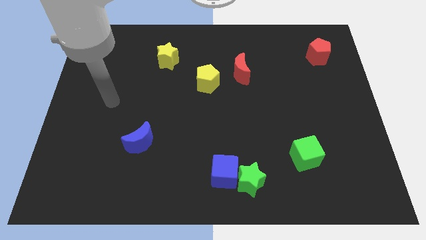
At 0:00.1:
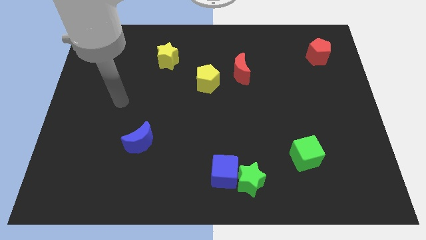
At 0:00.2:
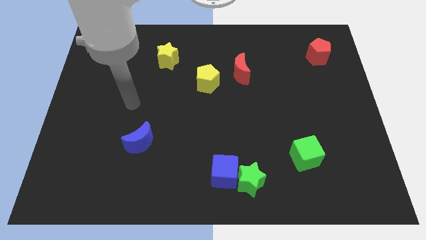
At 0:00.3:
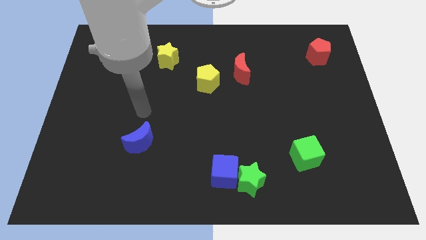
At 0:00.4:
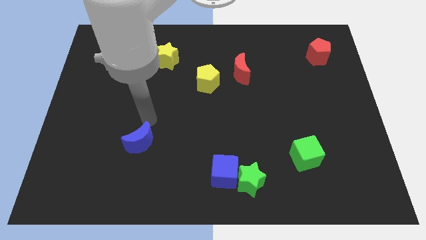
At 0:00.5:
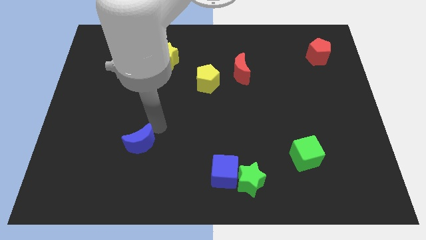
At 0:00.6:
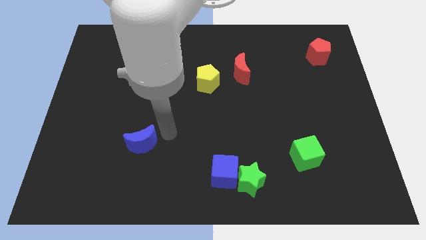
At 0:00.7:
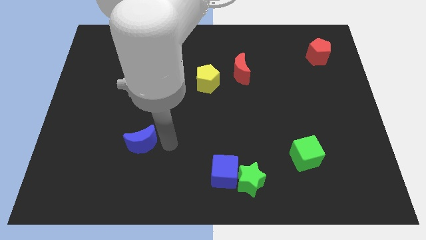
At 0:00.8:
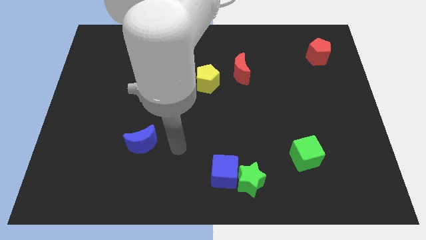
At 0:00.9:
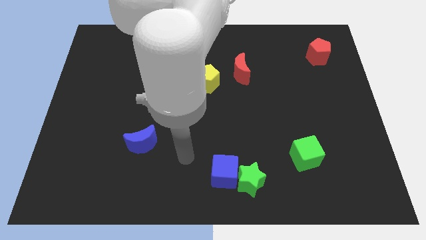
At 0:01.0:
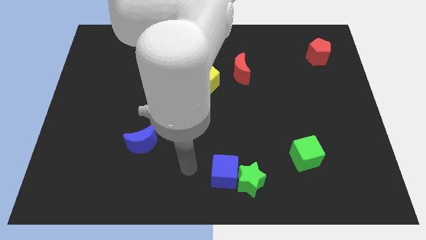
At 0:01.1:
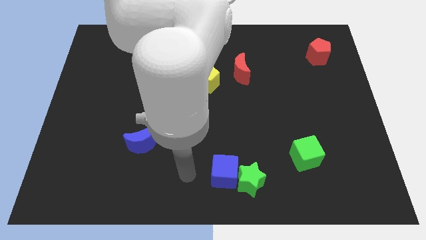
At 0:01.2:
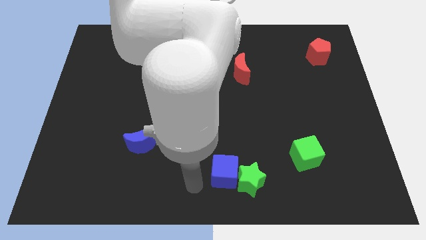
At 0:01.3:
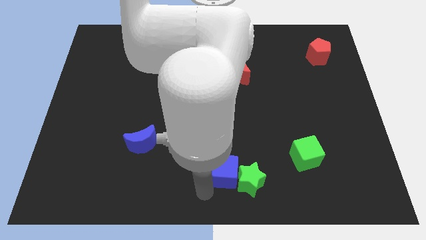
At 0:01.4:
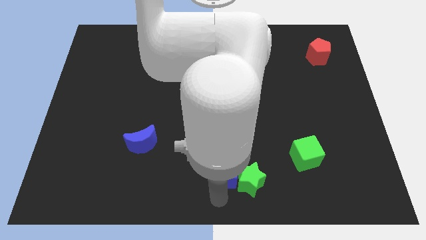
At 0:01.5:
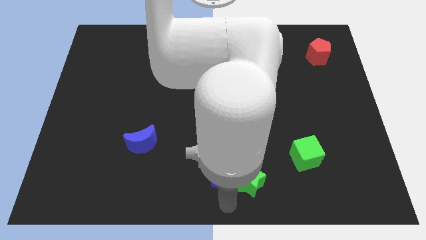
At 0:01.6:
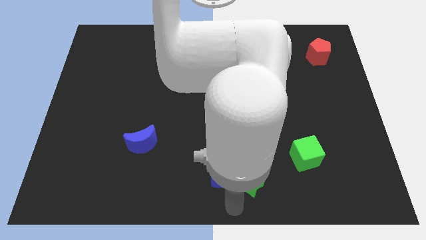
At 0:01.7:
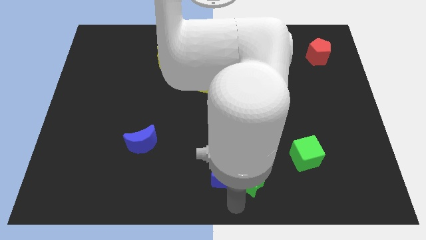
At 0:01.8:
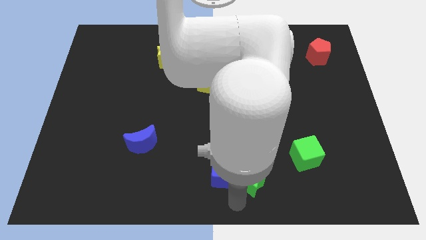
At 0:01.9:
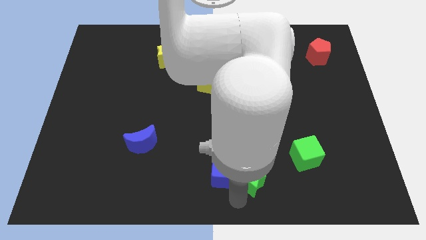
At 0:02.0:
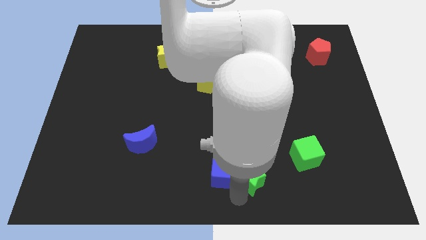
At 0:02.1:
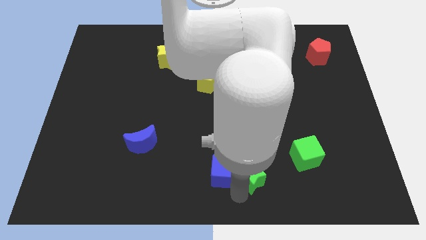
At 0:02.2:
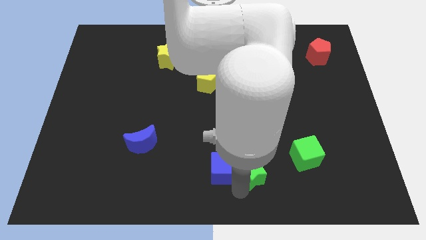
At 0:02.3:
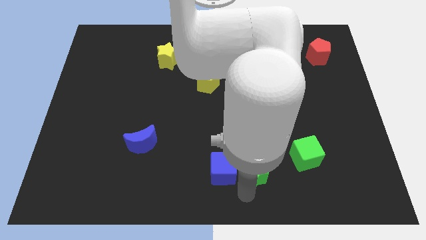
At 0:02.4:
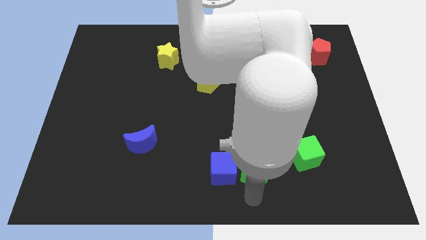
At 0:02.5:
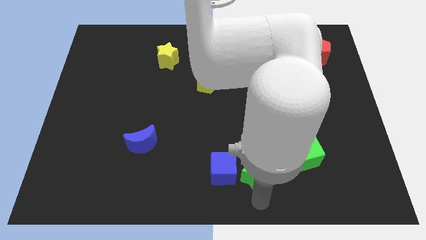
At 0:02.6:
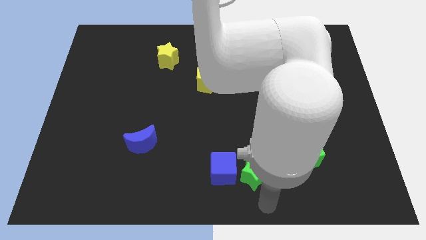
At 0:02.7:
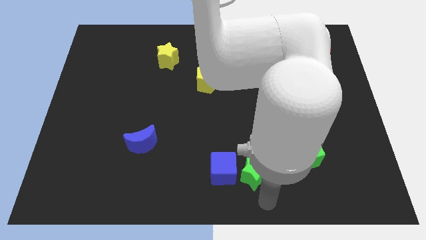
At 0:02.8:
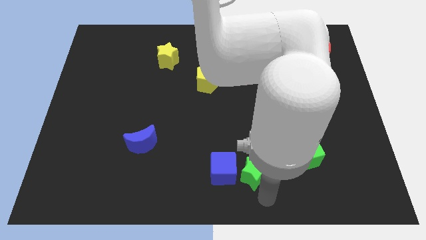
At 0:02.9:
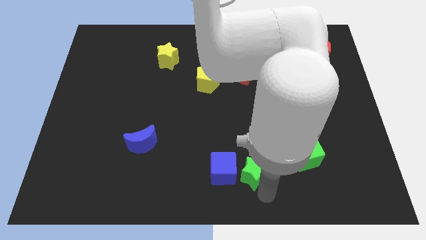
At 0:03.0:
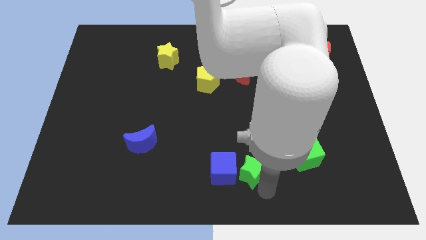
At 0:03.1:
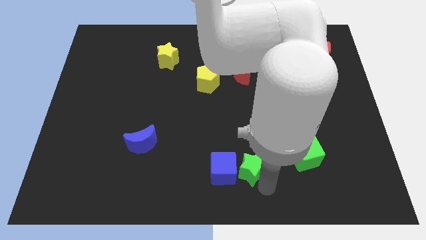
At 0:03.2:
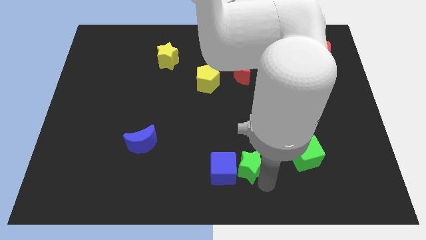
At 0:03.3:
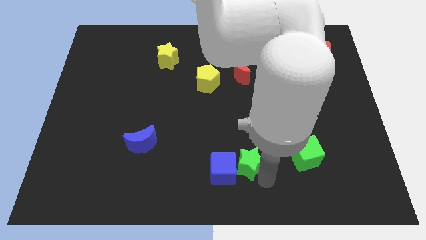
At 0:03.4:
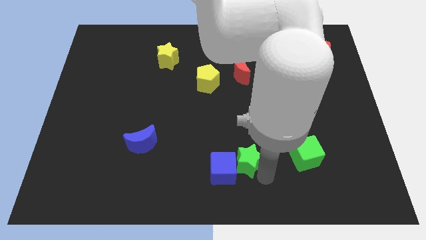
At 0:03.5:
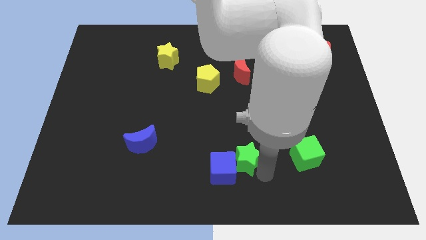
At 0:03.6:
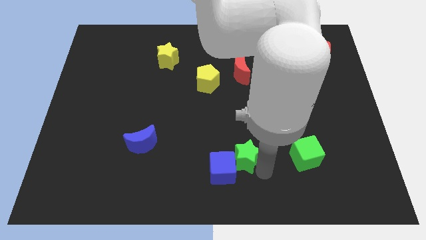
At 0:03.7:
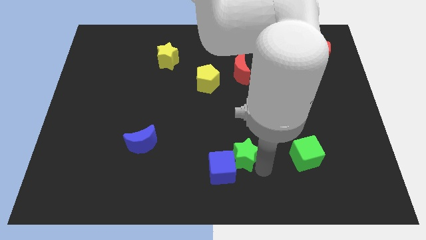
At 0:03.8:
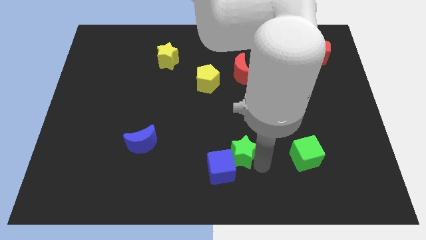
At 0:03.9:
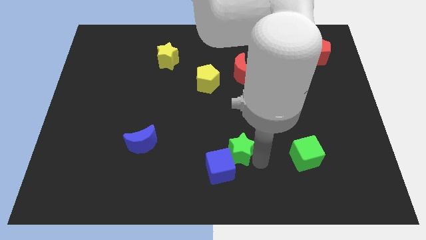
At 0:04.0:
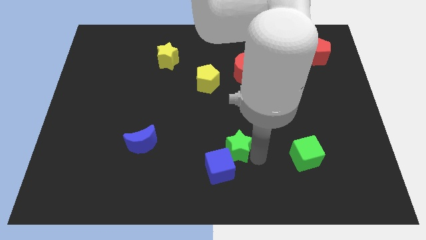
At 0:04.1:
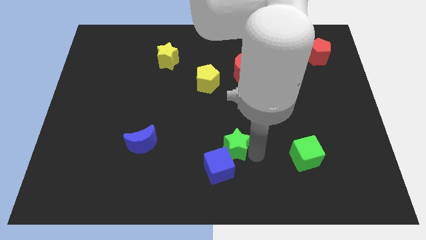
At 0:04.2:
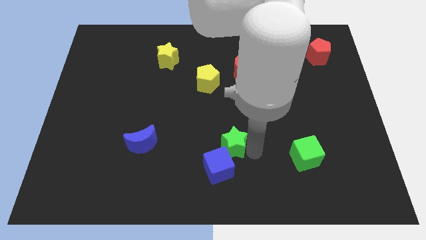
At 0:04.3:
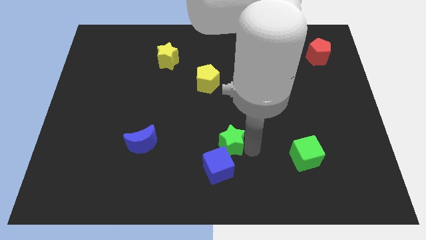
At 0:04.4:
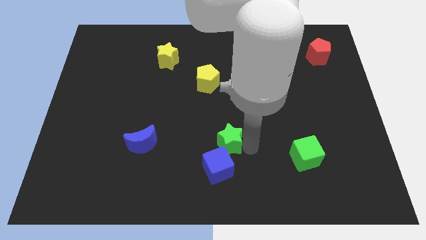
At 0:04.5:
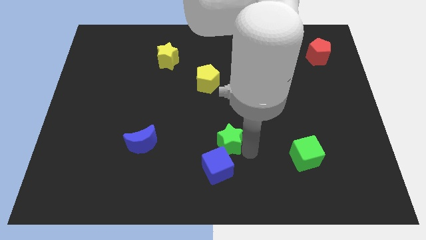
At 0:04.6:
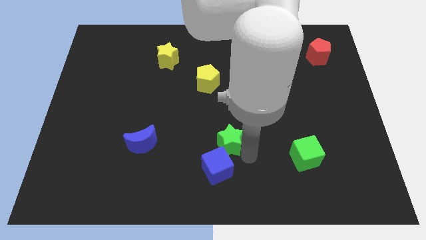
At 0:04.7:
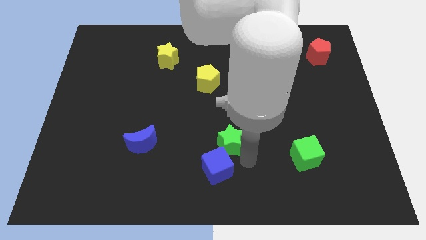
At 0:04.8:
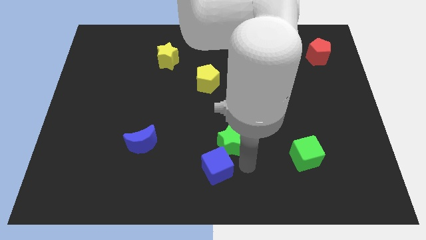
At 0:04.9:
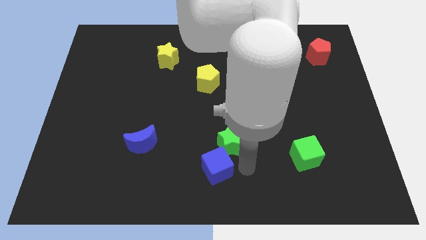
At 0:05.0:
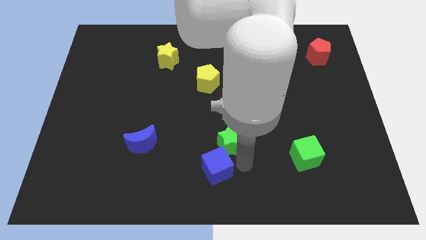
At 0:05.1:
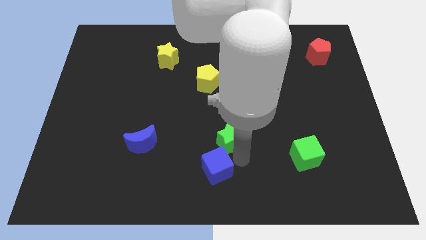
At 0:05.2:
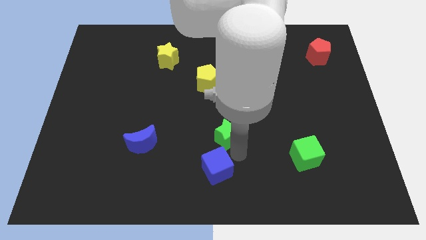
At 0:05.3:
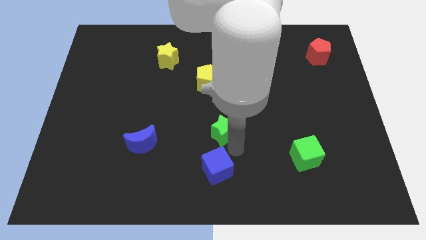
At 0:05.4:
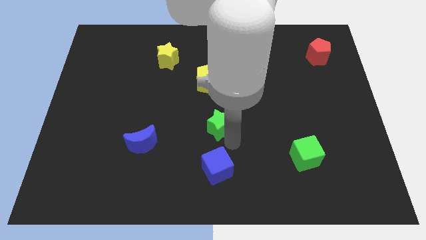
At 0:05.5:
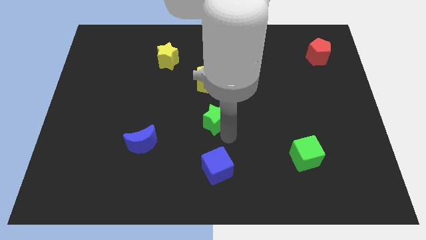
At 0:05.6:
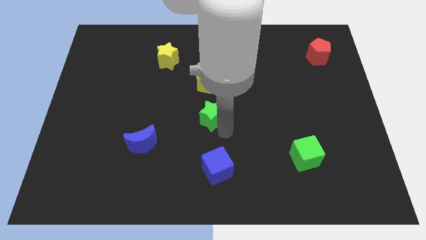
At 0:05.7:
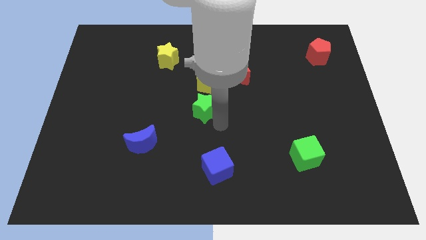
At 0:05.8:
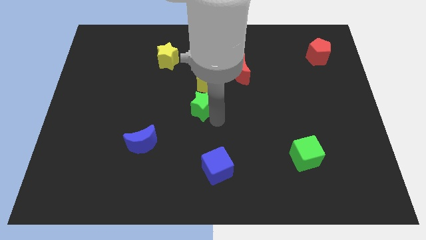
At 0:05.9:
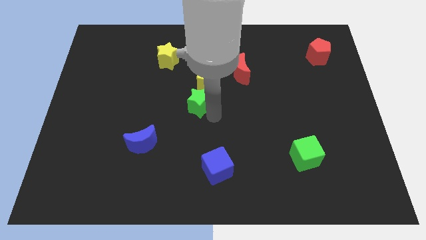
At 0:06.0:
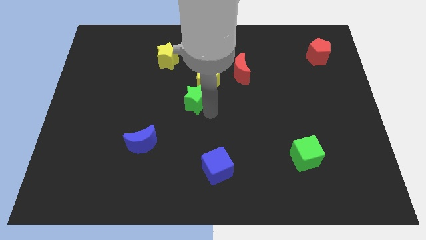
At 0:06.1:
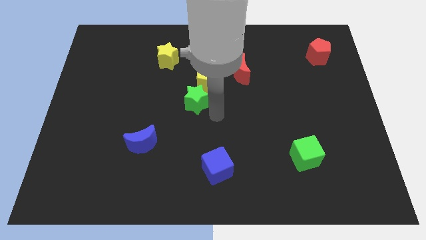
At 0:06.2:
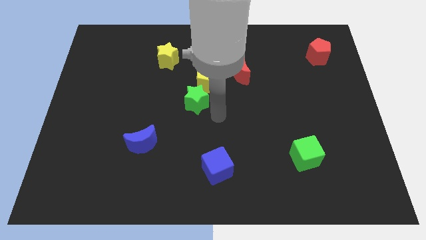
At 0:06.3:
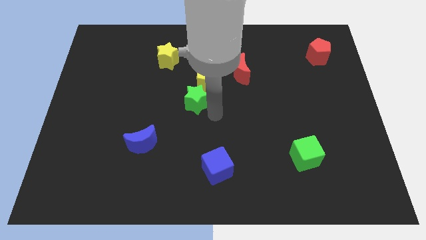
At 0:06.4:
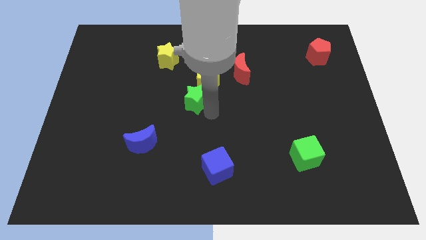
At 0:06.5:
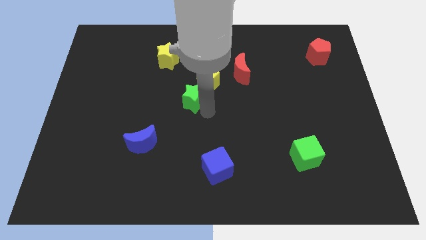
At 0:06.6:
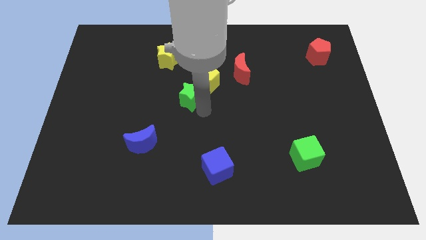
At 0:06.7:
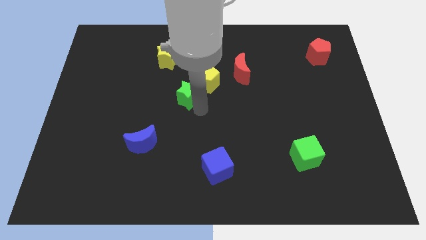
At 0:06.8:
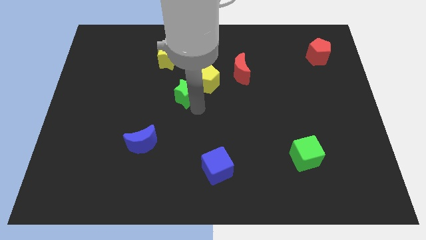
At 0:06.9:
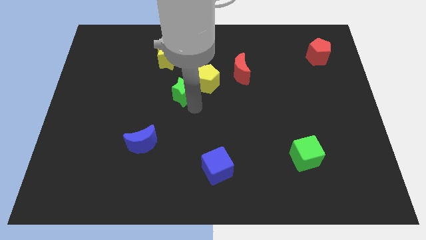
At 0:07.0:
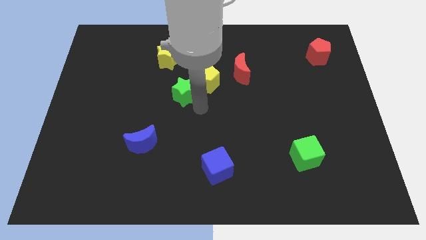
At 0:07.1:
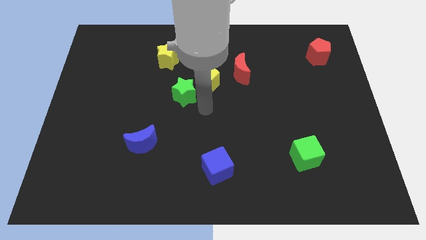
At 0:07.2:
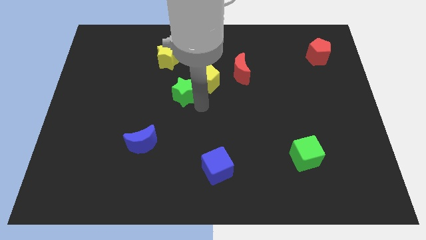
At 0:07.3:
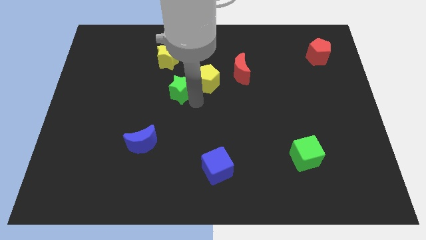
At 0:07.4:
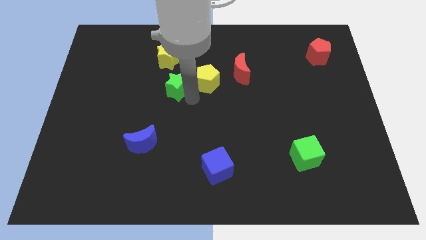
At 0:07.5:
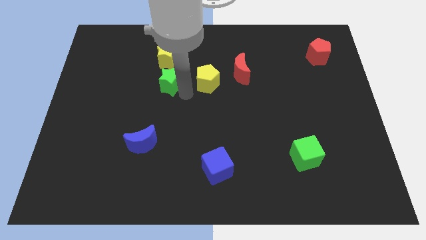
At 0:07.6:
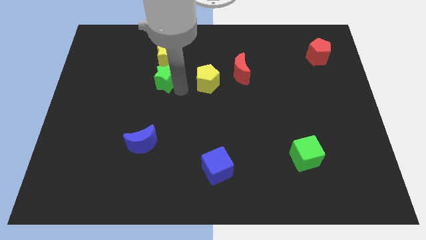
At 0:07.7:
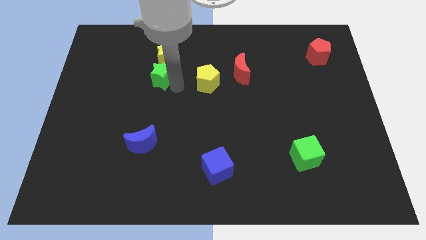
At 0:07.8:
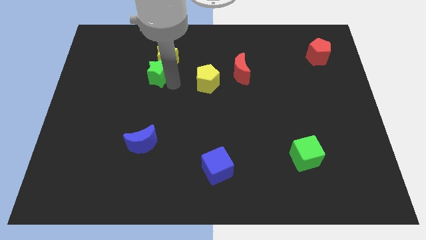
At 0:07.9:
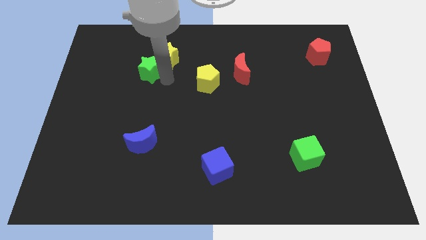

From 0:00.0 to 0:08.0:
push the green star left of the yellow star
